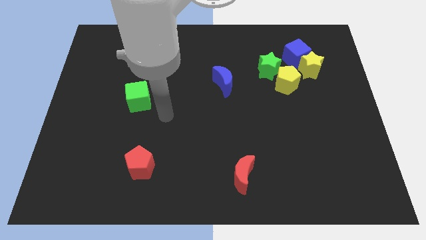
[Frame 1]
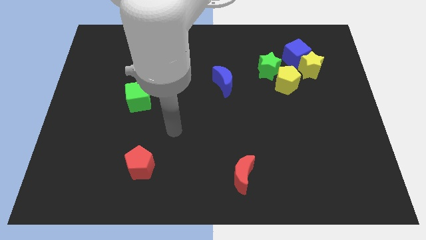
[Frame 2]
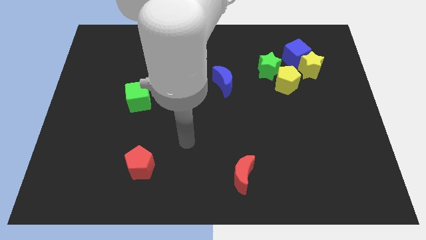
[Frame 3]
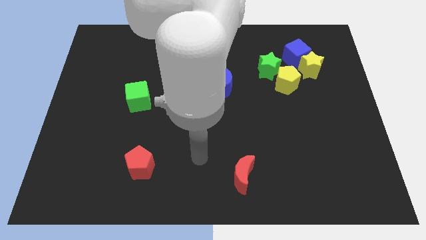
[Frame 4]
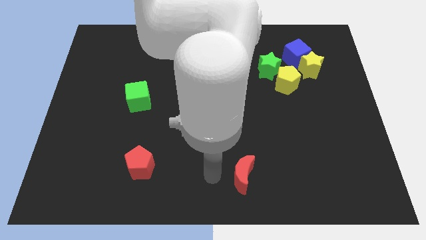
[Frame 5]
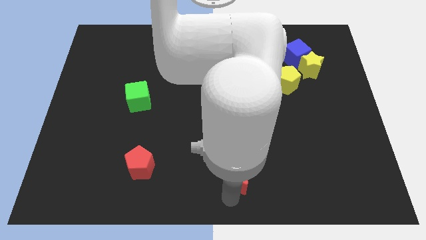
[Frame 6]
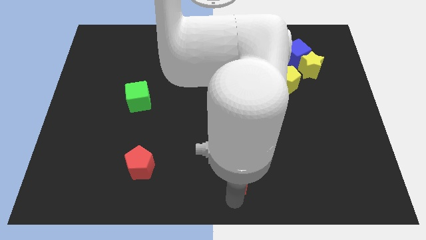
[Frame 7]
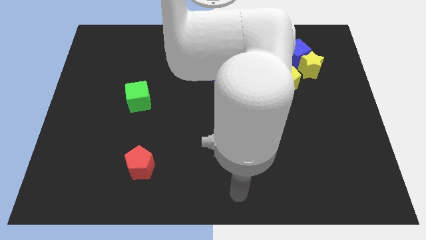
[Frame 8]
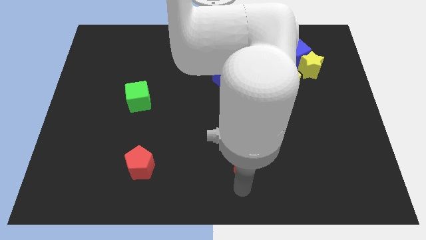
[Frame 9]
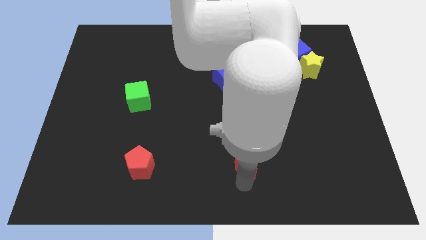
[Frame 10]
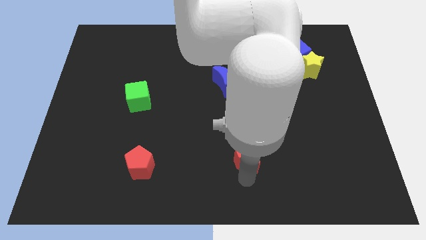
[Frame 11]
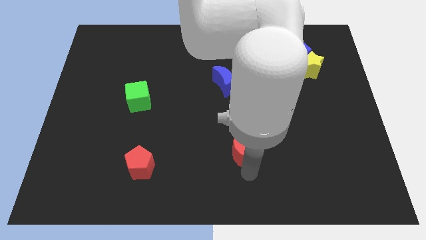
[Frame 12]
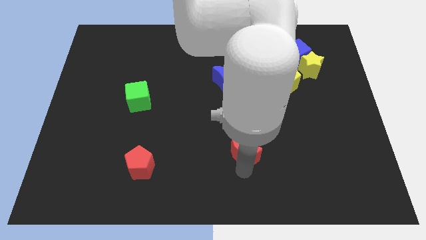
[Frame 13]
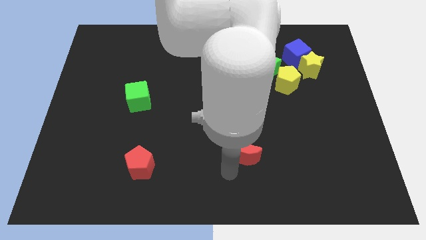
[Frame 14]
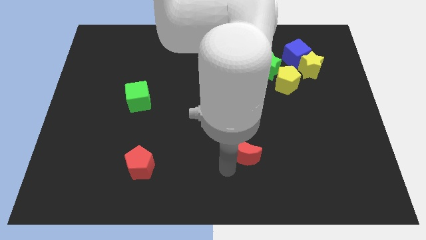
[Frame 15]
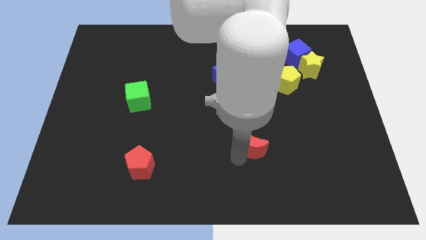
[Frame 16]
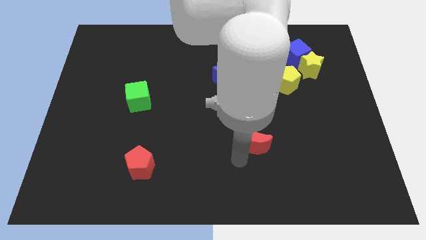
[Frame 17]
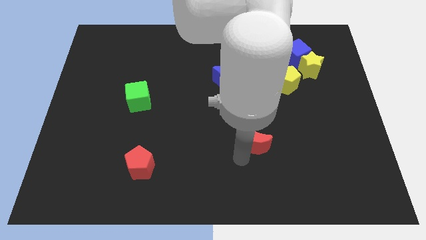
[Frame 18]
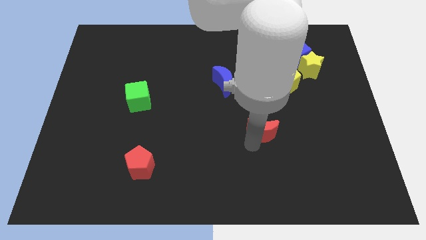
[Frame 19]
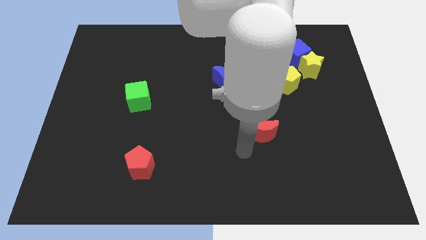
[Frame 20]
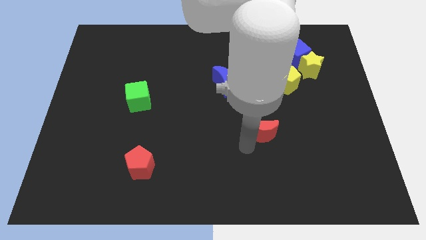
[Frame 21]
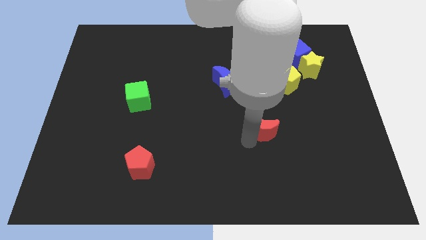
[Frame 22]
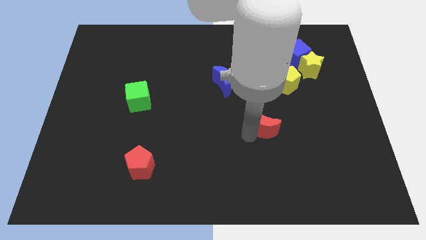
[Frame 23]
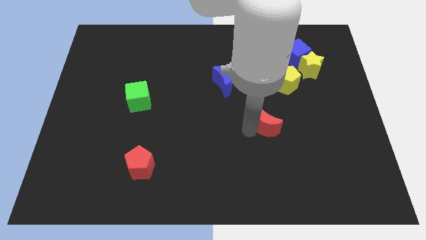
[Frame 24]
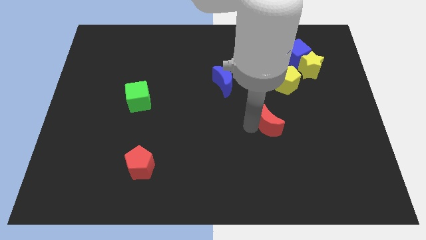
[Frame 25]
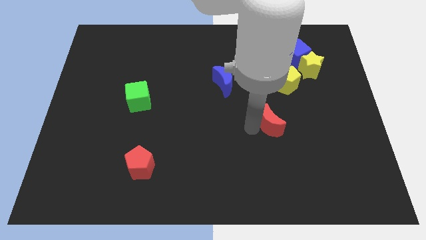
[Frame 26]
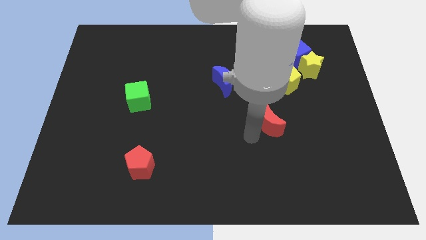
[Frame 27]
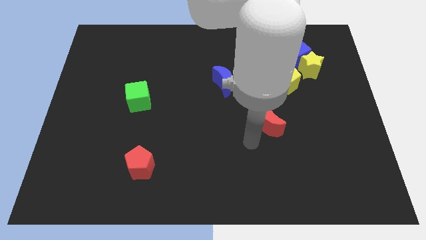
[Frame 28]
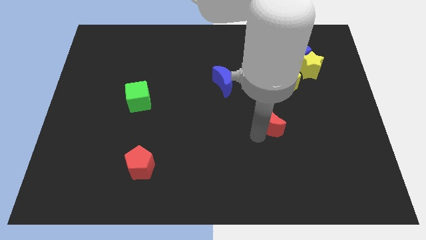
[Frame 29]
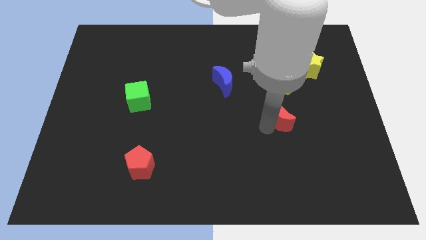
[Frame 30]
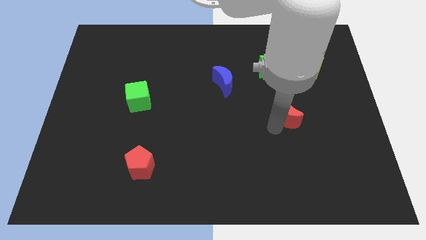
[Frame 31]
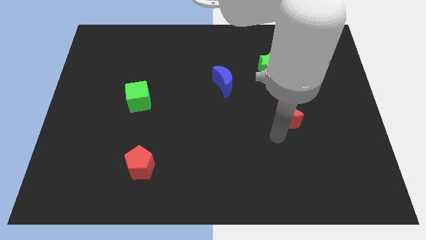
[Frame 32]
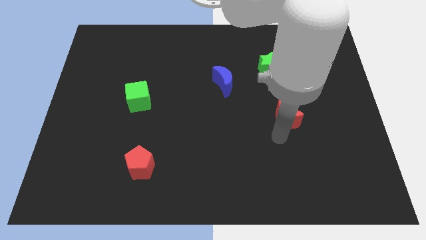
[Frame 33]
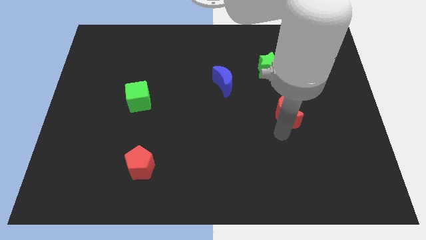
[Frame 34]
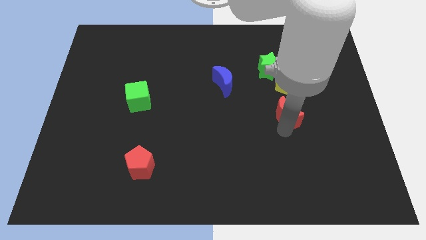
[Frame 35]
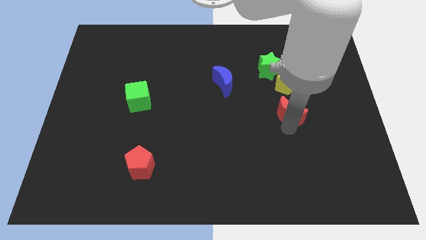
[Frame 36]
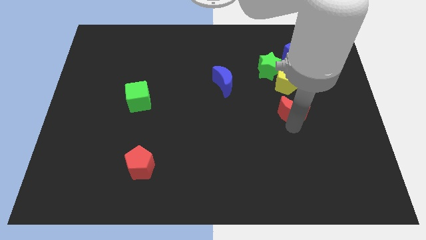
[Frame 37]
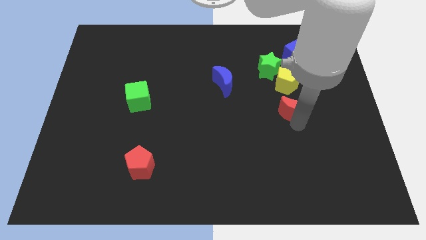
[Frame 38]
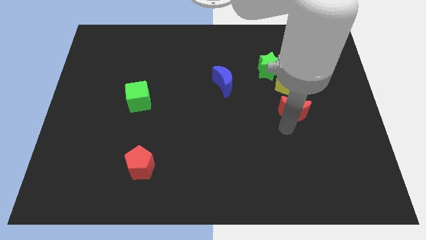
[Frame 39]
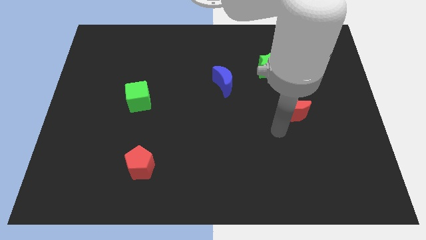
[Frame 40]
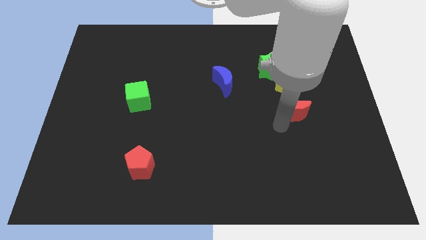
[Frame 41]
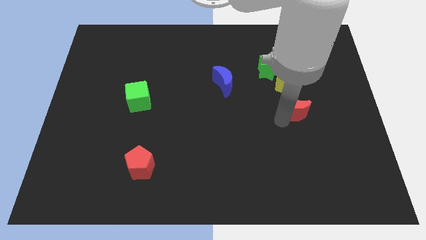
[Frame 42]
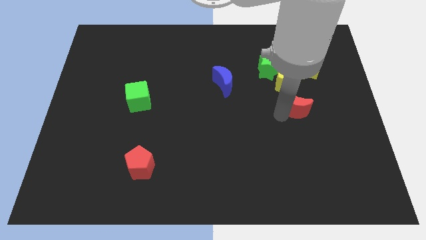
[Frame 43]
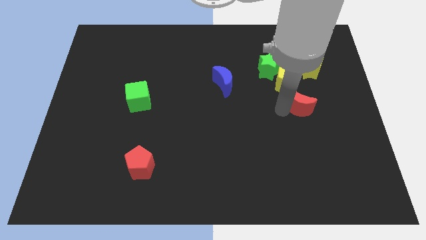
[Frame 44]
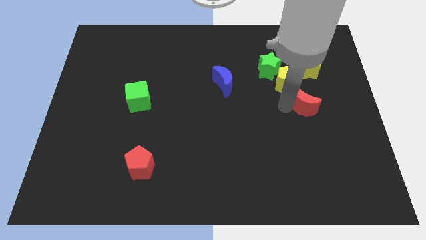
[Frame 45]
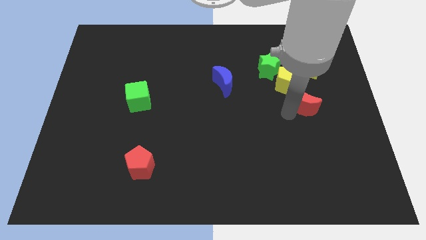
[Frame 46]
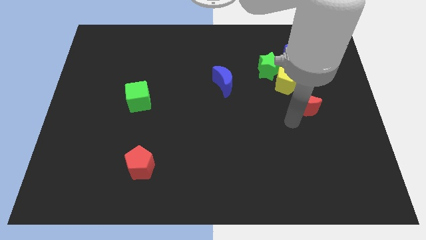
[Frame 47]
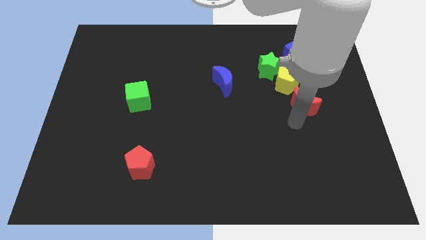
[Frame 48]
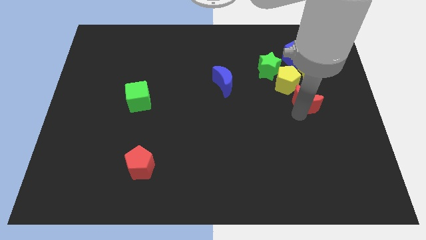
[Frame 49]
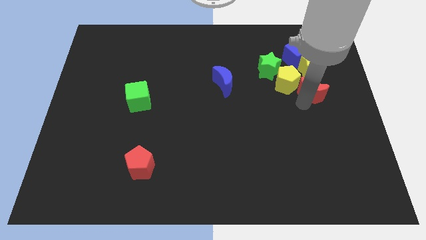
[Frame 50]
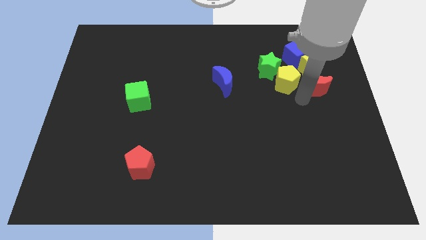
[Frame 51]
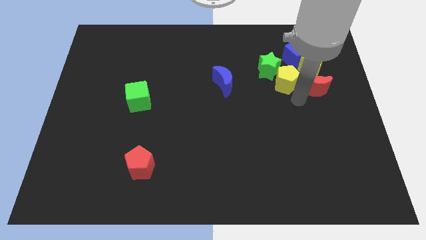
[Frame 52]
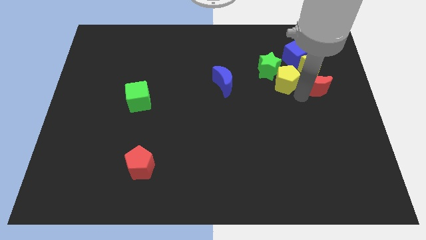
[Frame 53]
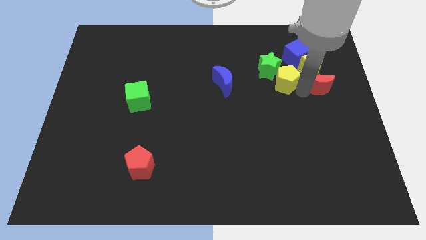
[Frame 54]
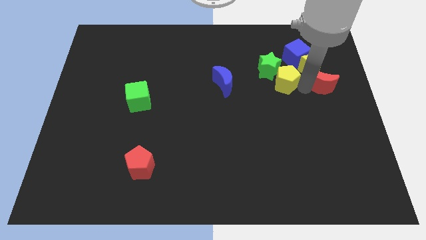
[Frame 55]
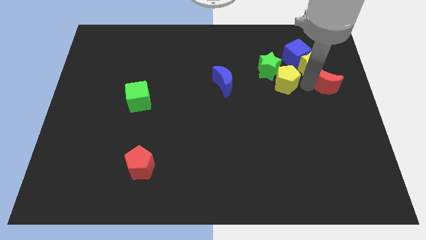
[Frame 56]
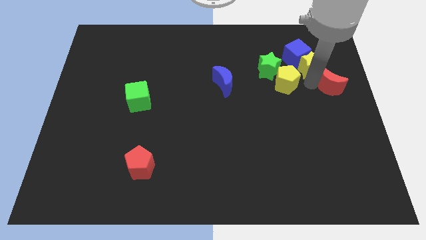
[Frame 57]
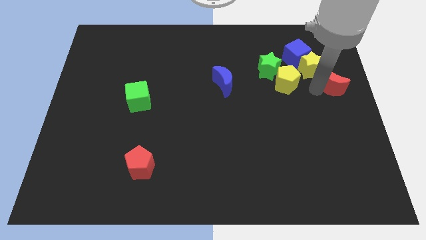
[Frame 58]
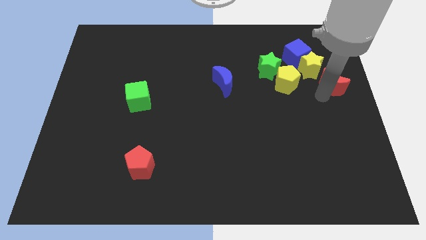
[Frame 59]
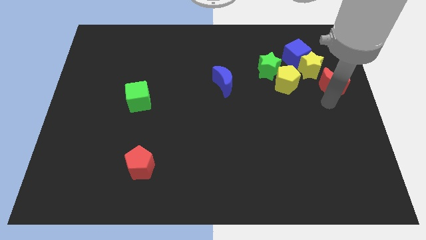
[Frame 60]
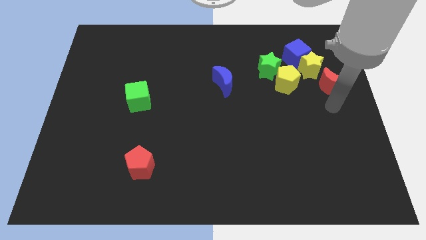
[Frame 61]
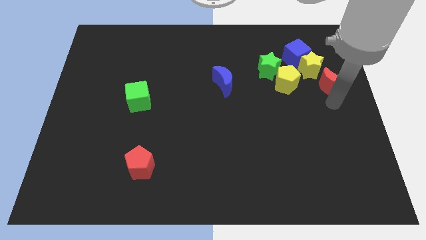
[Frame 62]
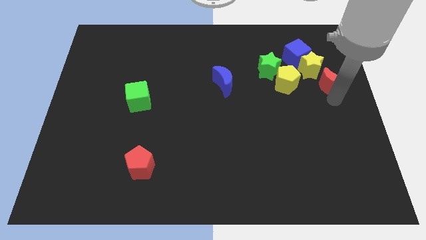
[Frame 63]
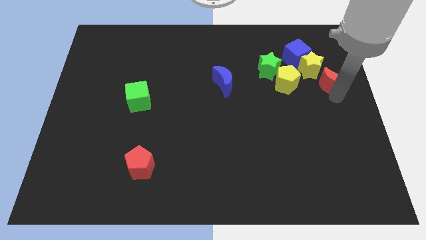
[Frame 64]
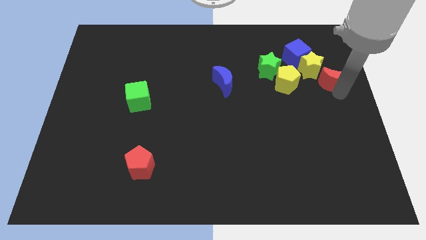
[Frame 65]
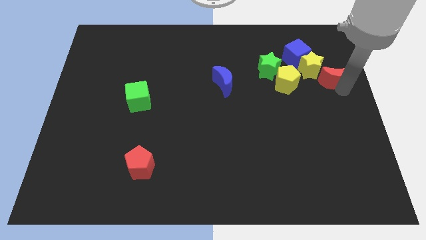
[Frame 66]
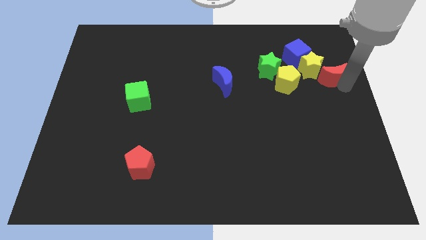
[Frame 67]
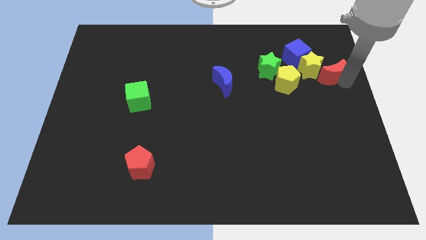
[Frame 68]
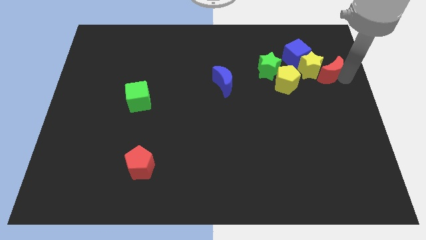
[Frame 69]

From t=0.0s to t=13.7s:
move the red moon to the right of the green star
